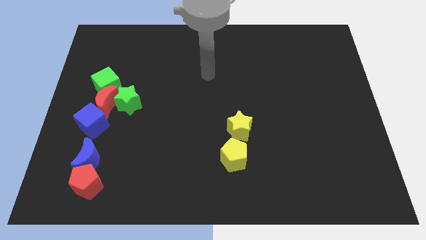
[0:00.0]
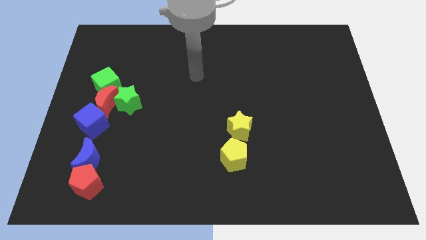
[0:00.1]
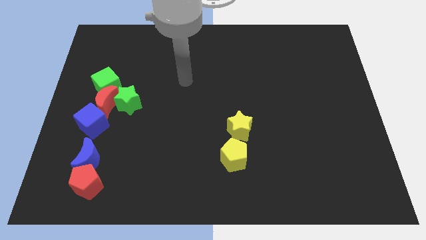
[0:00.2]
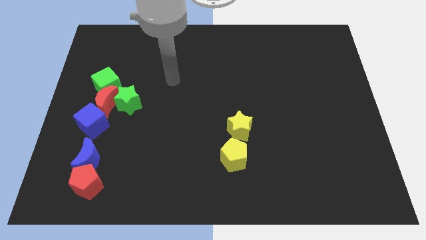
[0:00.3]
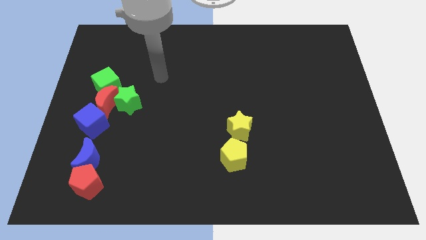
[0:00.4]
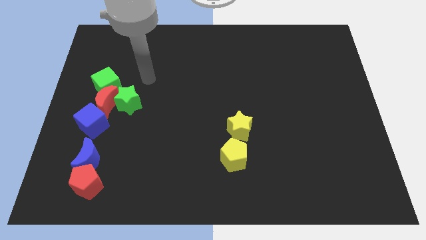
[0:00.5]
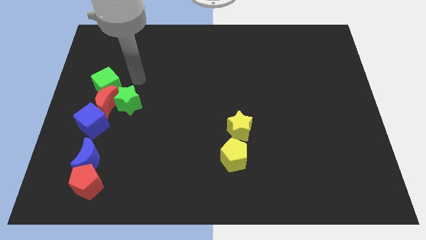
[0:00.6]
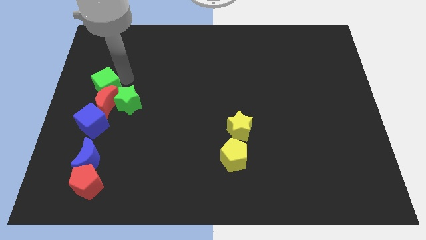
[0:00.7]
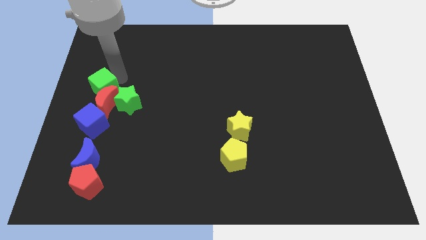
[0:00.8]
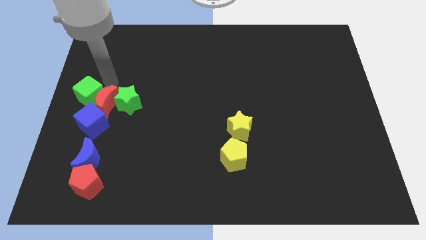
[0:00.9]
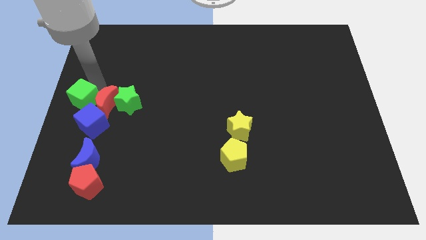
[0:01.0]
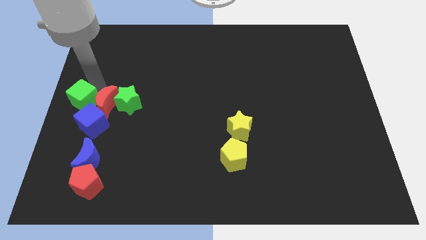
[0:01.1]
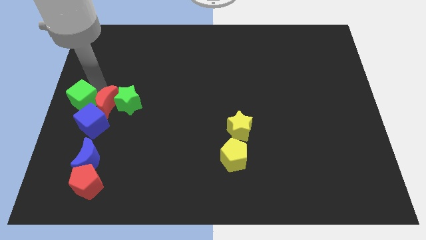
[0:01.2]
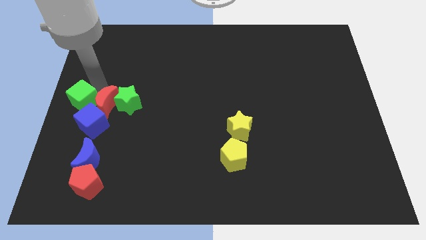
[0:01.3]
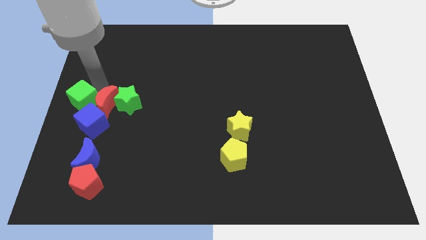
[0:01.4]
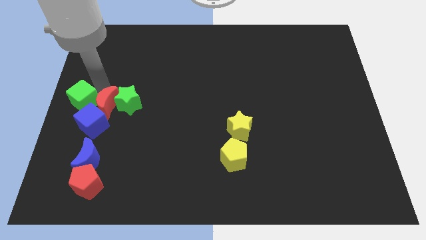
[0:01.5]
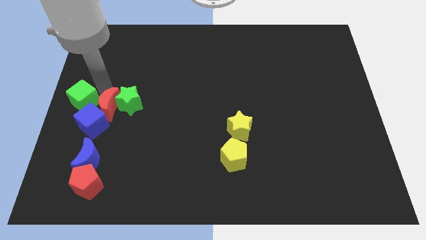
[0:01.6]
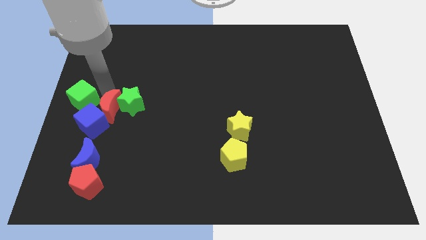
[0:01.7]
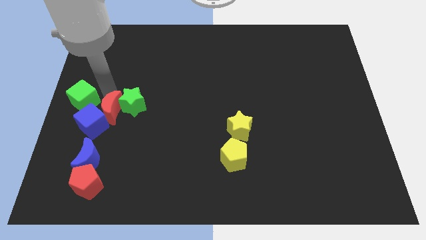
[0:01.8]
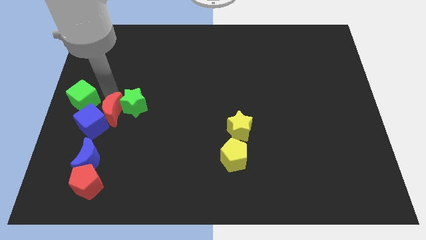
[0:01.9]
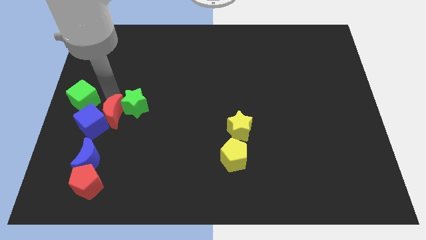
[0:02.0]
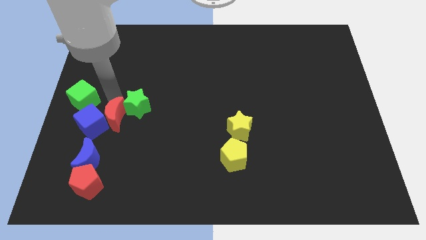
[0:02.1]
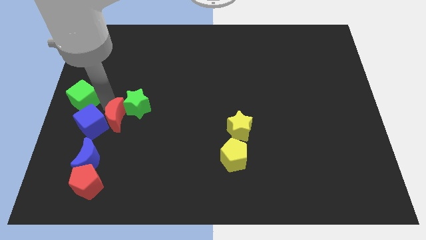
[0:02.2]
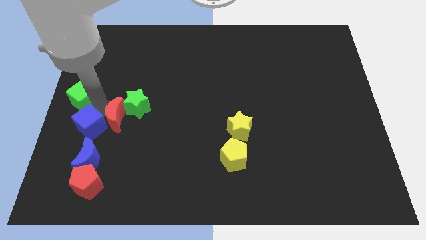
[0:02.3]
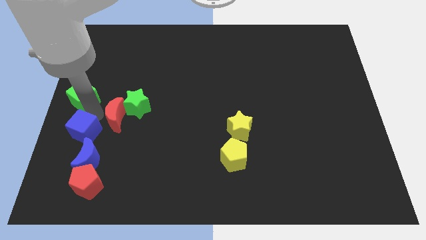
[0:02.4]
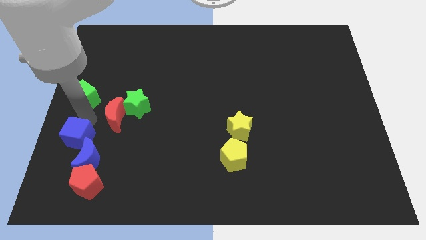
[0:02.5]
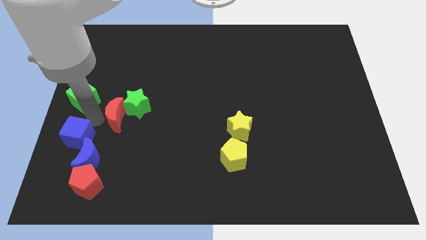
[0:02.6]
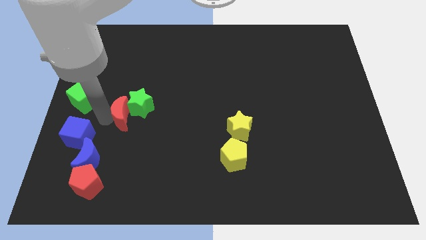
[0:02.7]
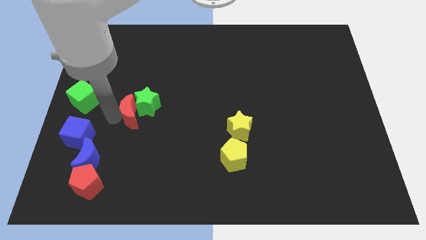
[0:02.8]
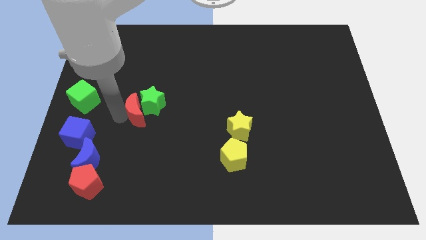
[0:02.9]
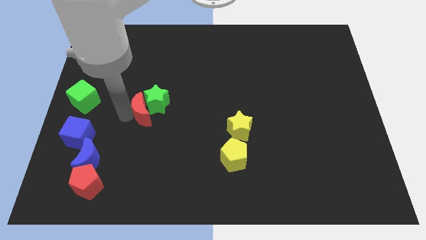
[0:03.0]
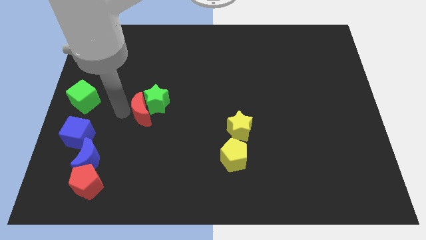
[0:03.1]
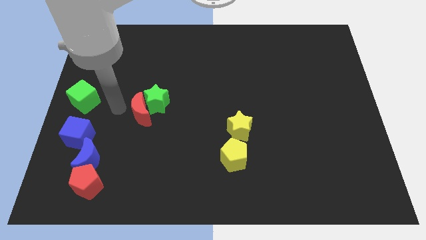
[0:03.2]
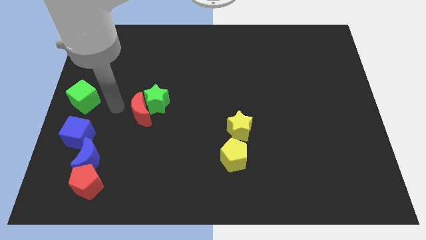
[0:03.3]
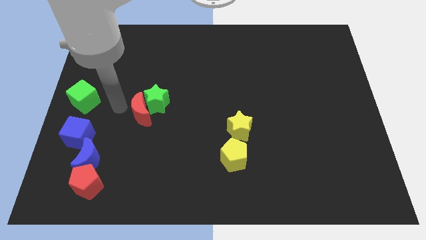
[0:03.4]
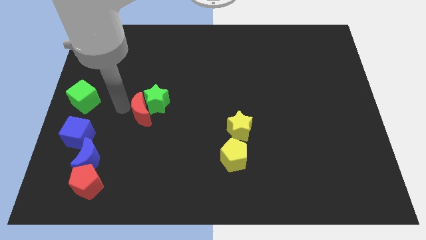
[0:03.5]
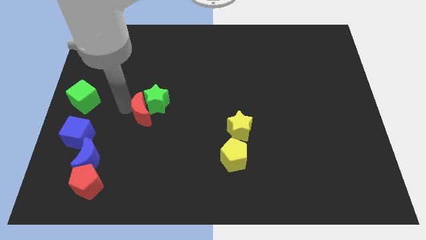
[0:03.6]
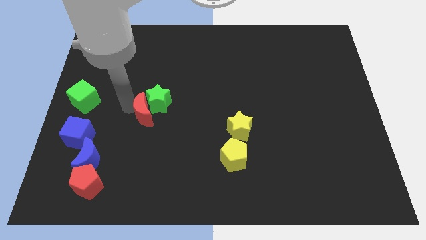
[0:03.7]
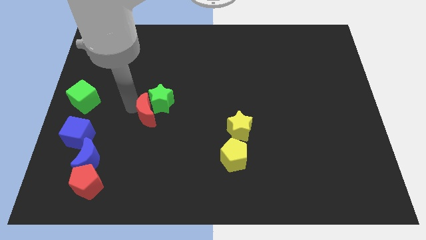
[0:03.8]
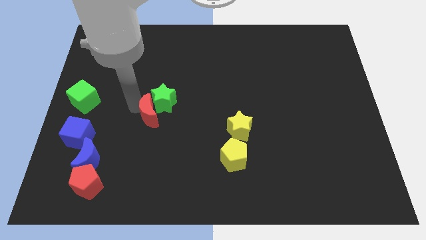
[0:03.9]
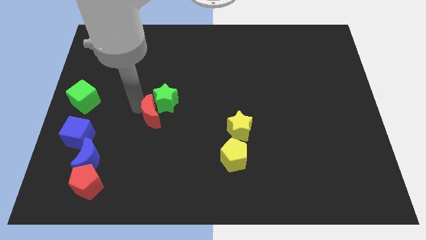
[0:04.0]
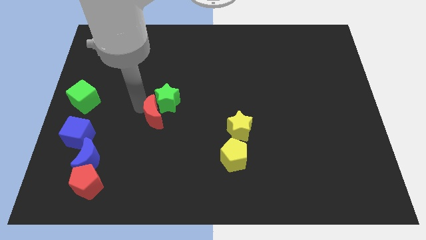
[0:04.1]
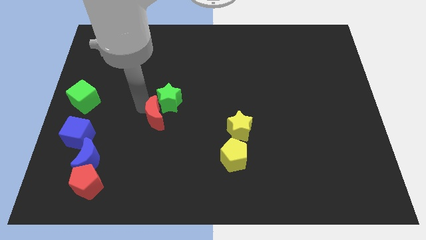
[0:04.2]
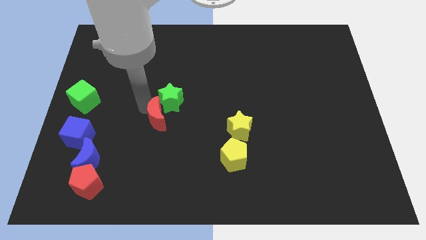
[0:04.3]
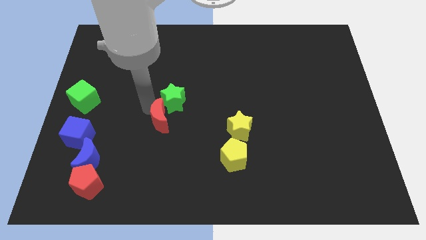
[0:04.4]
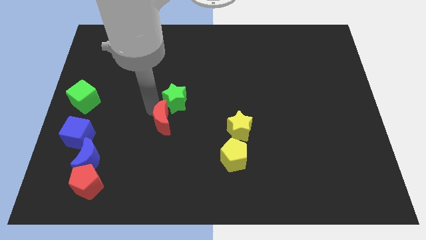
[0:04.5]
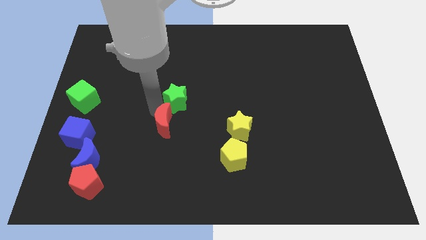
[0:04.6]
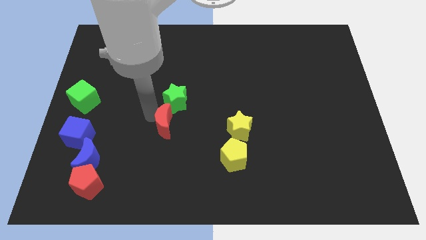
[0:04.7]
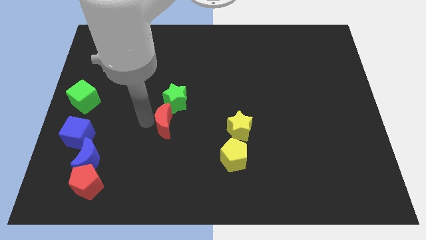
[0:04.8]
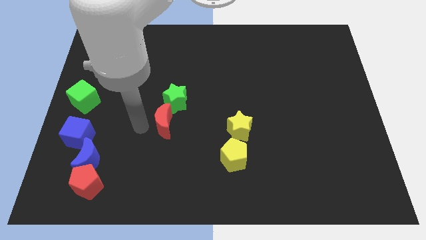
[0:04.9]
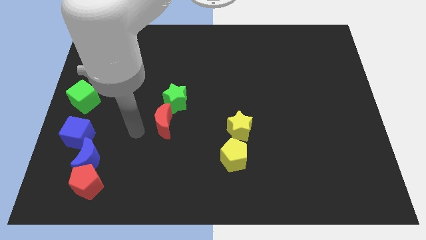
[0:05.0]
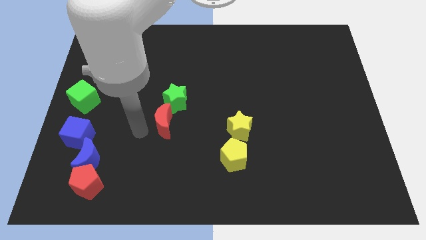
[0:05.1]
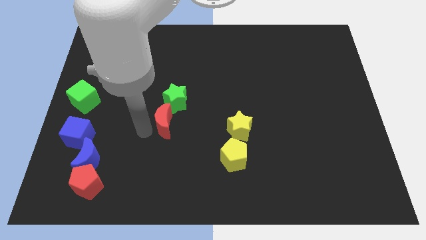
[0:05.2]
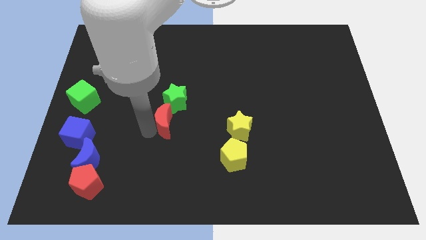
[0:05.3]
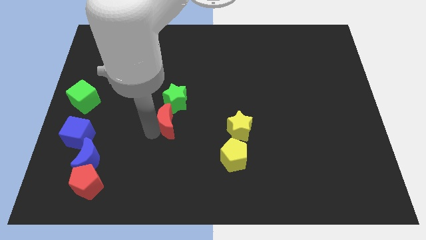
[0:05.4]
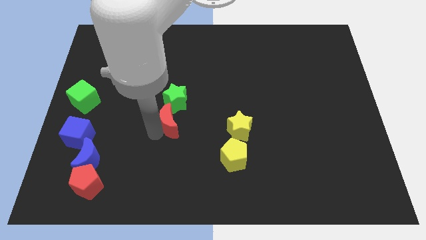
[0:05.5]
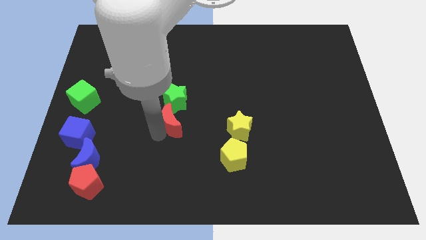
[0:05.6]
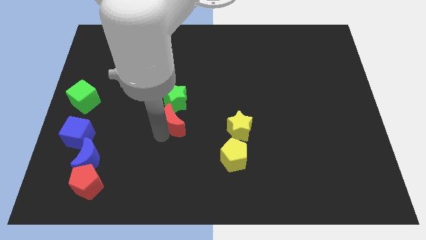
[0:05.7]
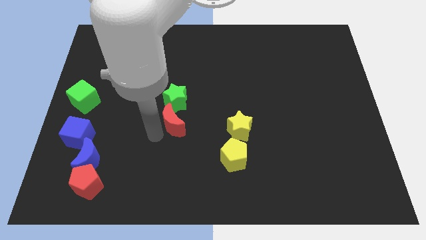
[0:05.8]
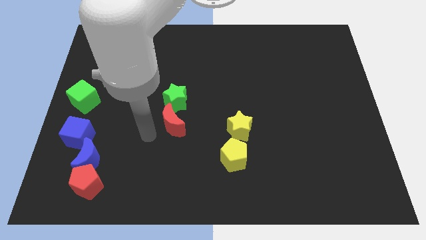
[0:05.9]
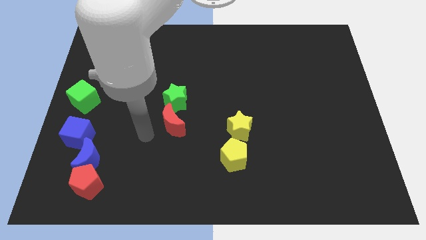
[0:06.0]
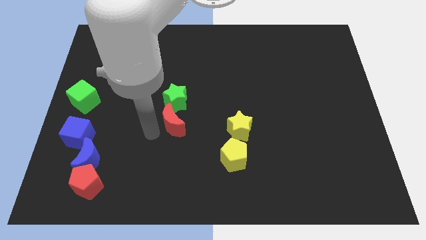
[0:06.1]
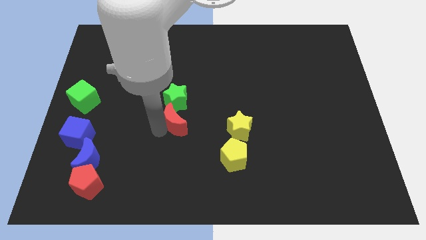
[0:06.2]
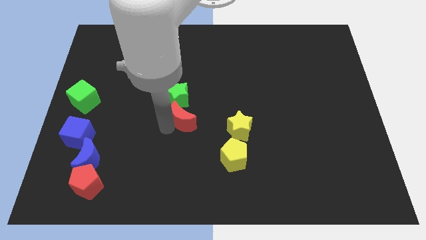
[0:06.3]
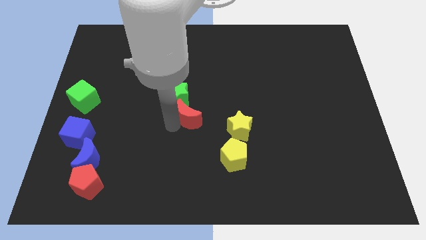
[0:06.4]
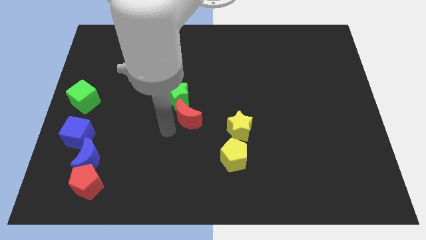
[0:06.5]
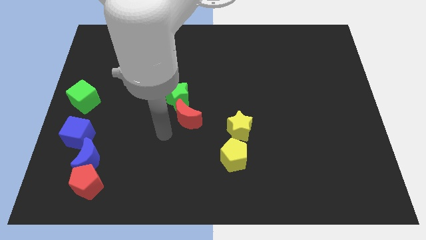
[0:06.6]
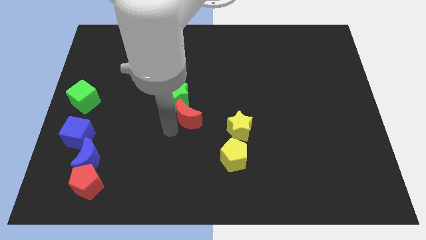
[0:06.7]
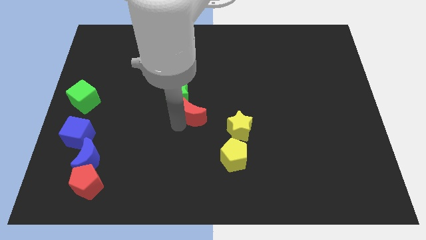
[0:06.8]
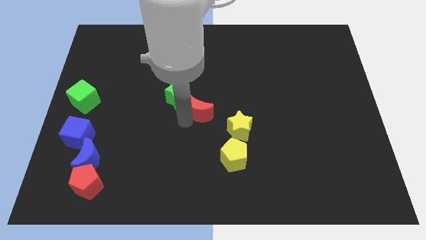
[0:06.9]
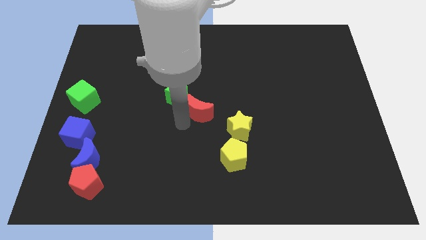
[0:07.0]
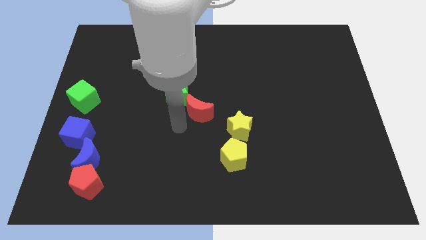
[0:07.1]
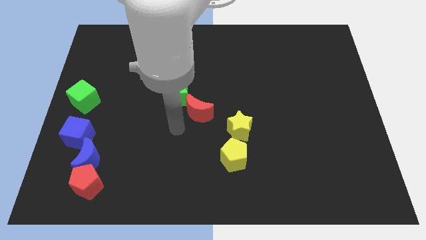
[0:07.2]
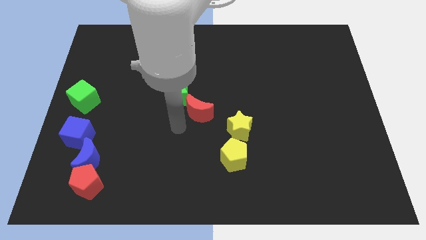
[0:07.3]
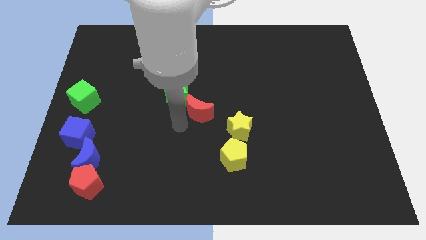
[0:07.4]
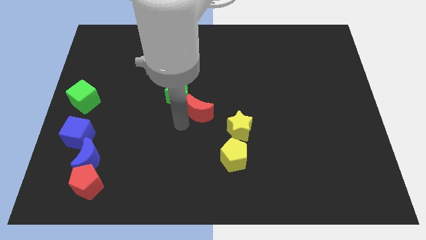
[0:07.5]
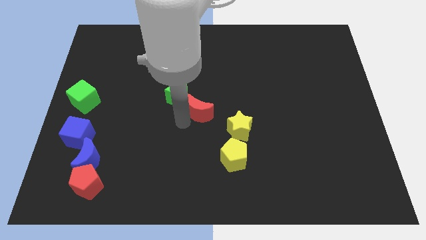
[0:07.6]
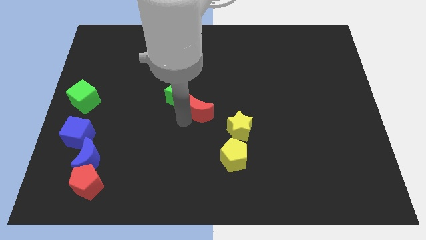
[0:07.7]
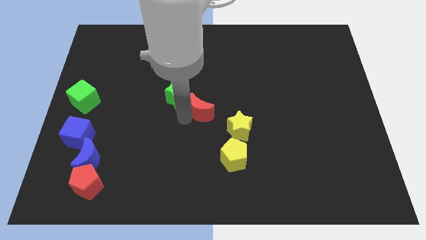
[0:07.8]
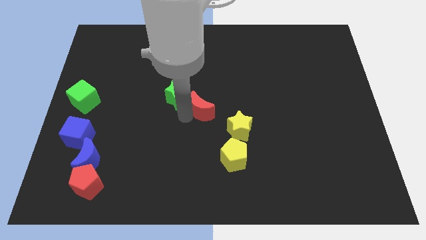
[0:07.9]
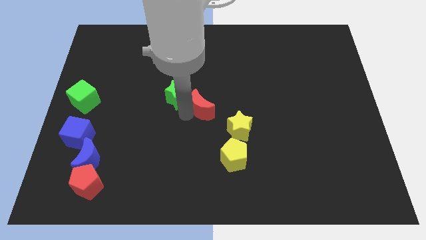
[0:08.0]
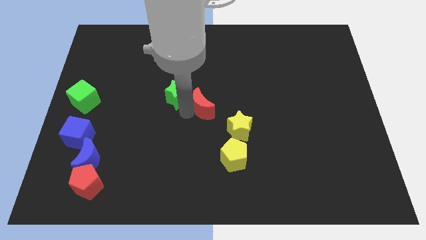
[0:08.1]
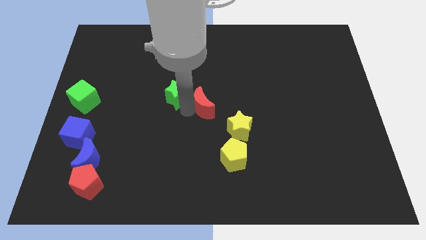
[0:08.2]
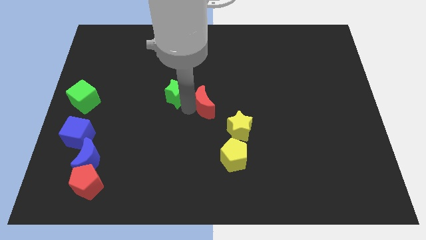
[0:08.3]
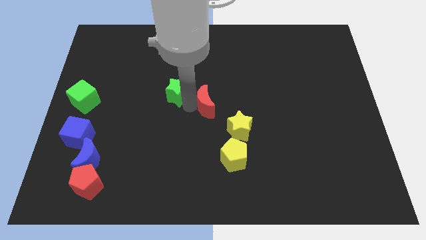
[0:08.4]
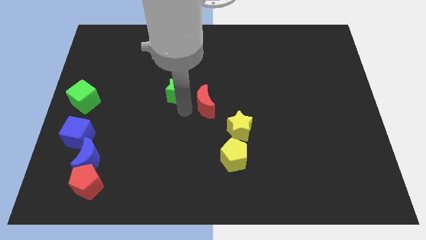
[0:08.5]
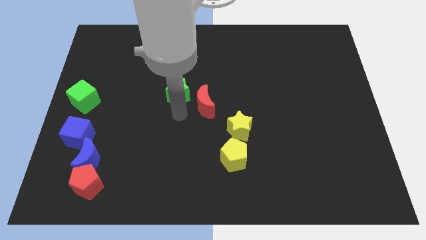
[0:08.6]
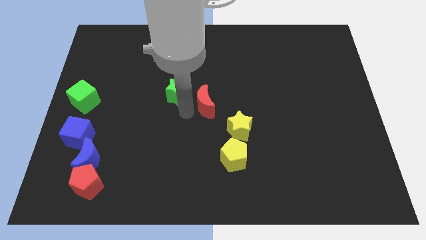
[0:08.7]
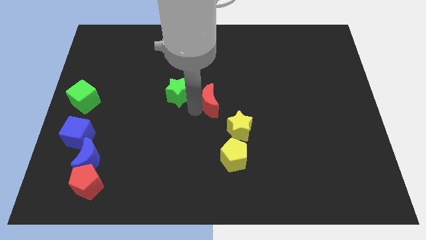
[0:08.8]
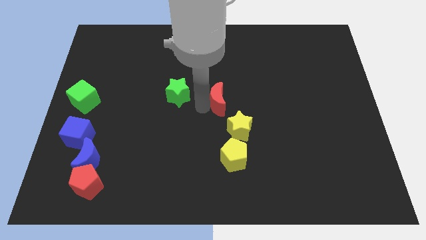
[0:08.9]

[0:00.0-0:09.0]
push the red moon to the top of the yellow star
